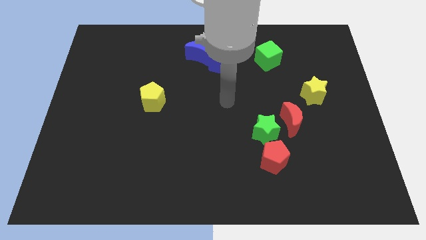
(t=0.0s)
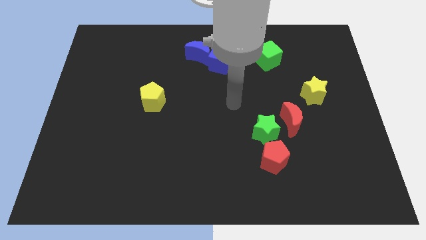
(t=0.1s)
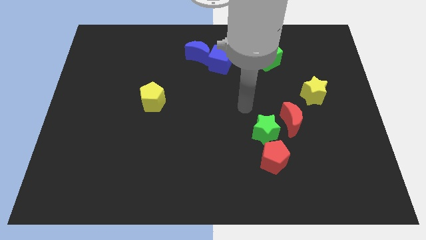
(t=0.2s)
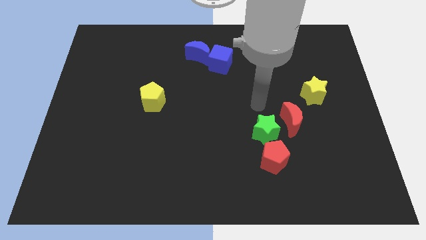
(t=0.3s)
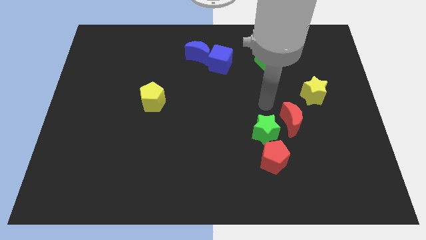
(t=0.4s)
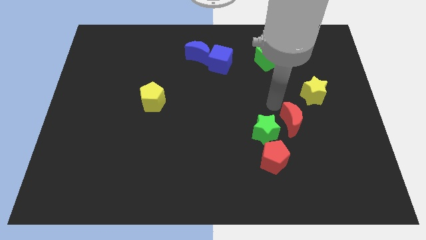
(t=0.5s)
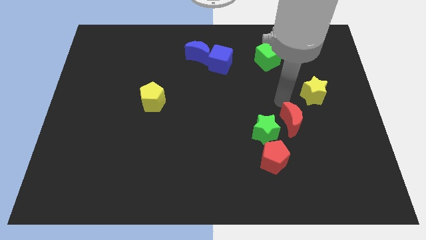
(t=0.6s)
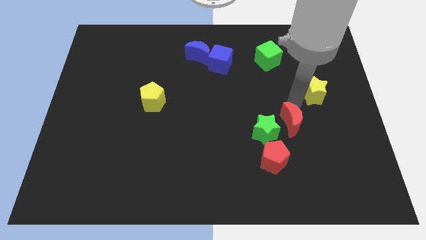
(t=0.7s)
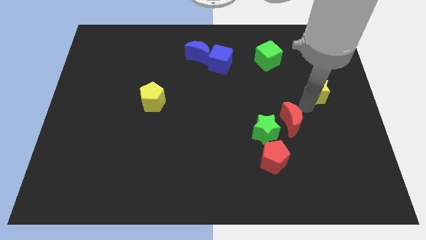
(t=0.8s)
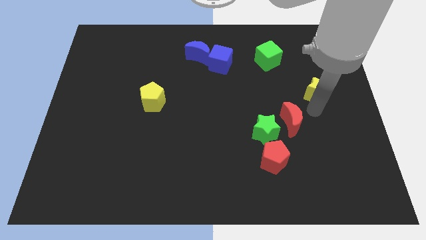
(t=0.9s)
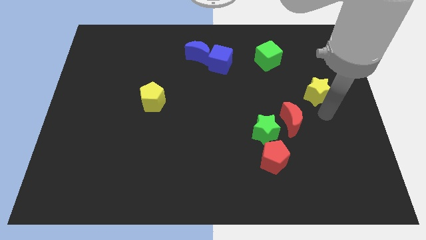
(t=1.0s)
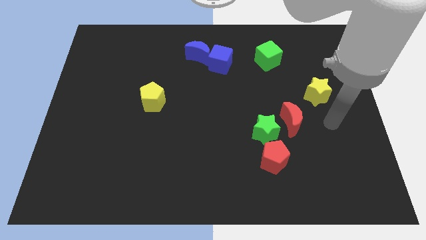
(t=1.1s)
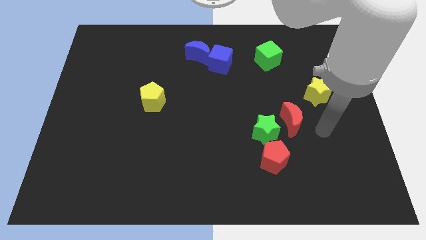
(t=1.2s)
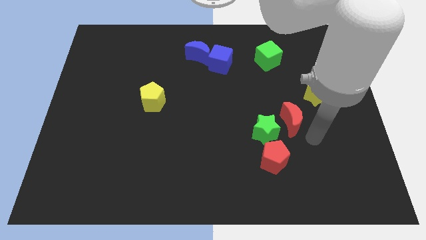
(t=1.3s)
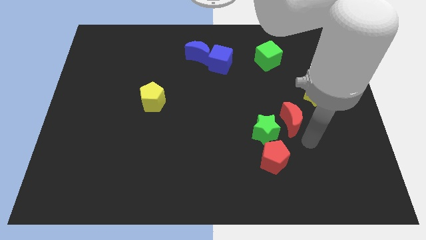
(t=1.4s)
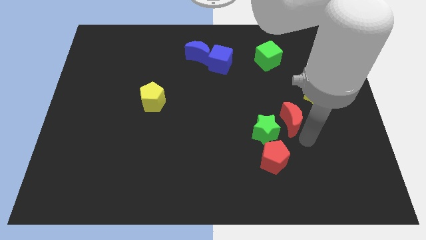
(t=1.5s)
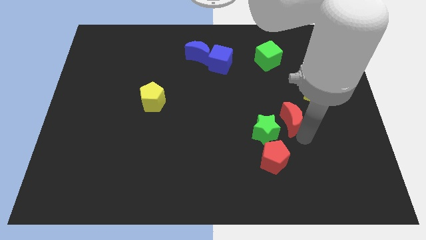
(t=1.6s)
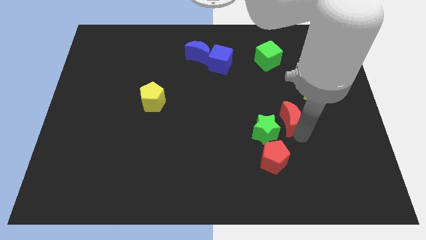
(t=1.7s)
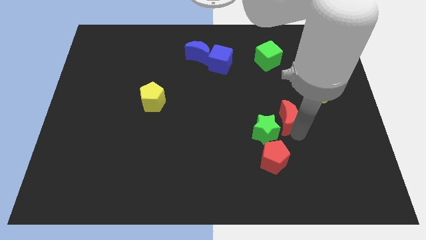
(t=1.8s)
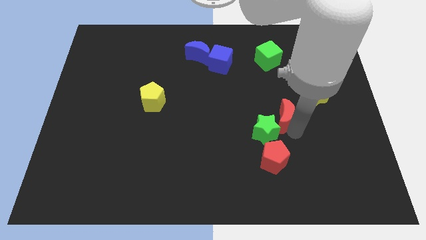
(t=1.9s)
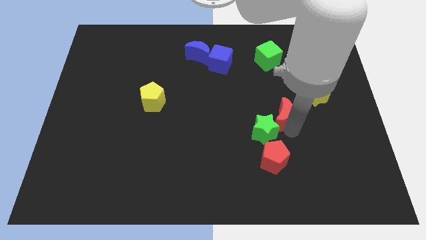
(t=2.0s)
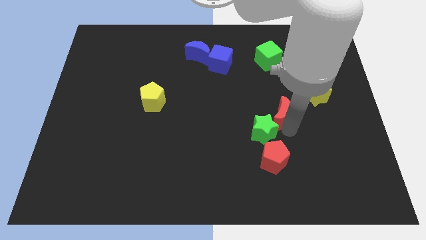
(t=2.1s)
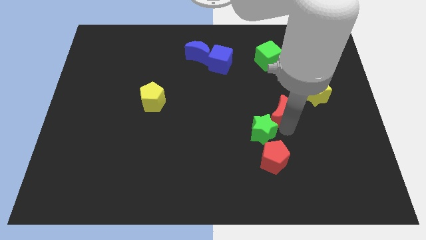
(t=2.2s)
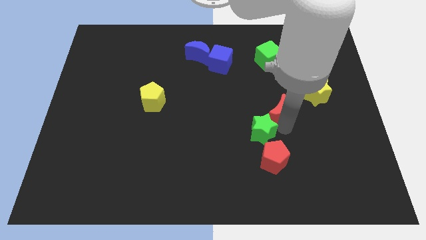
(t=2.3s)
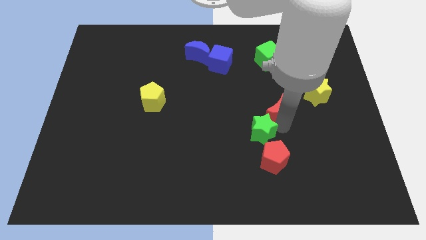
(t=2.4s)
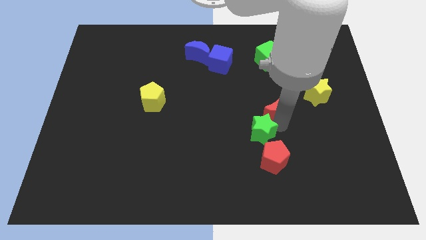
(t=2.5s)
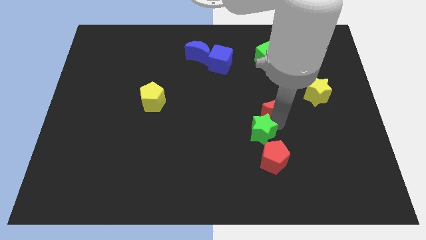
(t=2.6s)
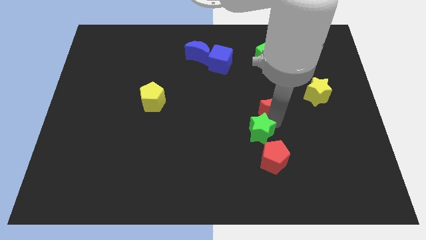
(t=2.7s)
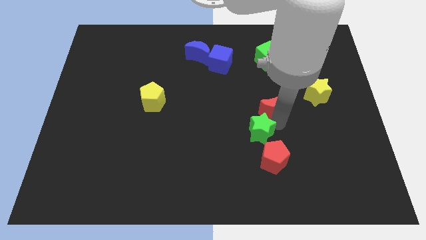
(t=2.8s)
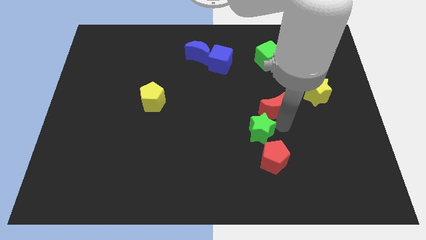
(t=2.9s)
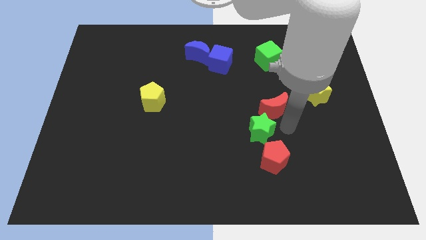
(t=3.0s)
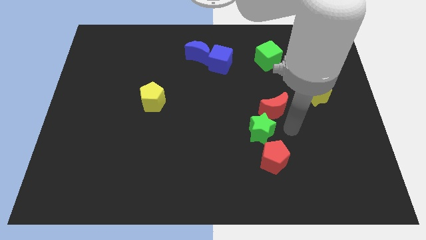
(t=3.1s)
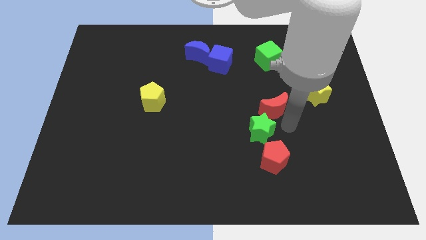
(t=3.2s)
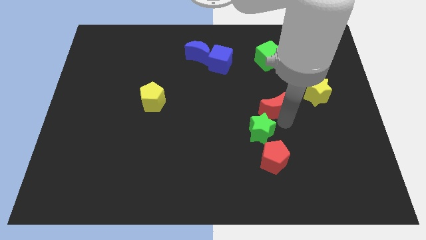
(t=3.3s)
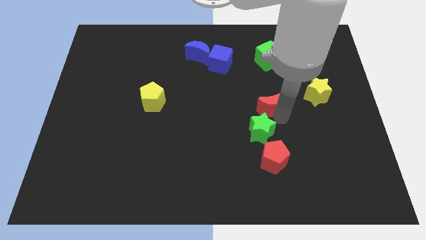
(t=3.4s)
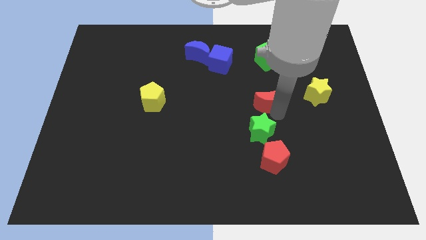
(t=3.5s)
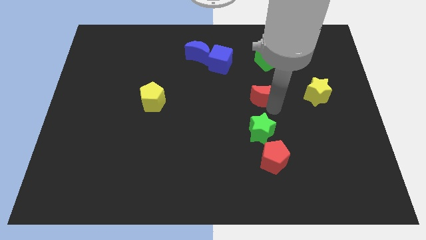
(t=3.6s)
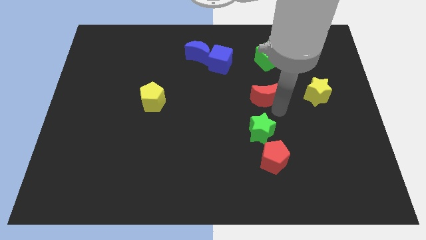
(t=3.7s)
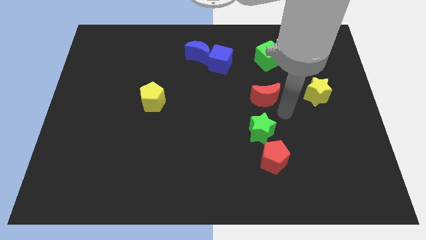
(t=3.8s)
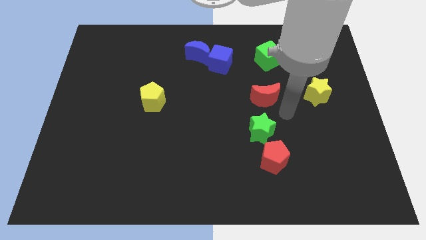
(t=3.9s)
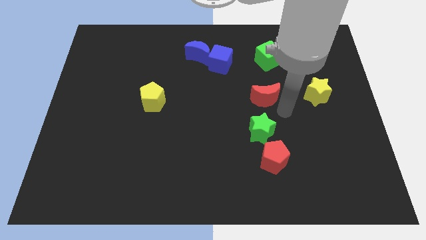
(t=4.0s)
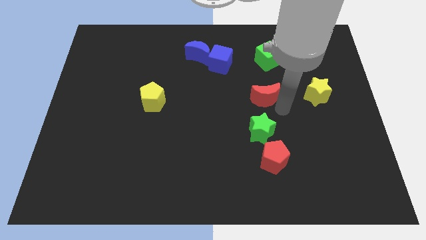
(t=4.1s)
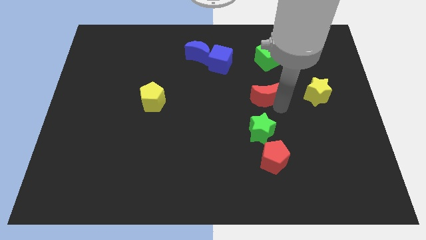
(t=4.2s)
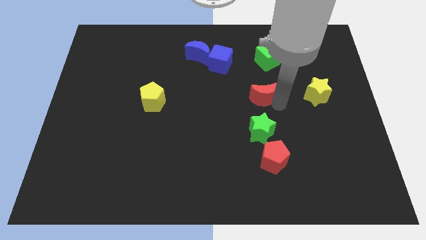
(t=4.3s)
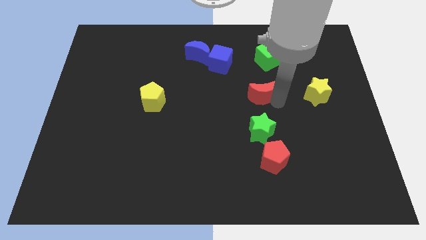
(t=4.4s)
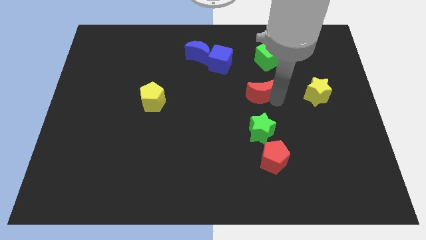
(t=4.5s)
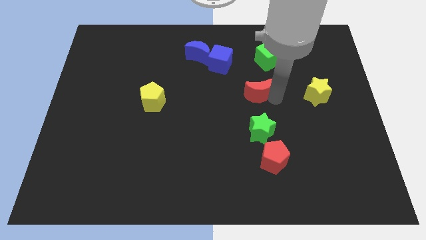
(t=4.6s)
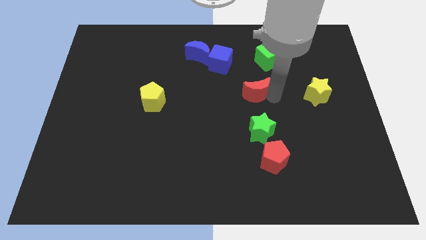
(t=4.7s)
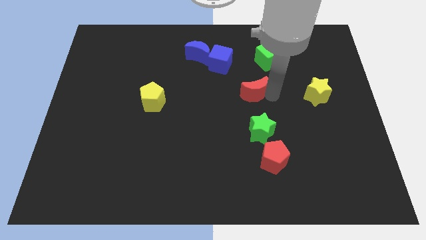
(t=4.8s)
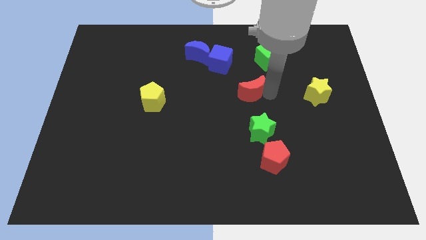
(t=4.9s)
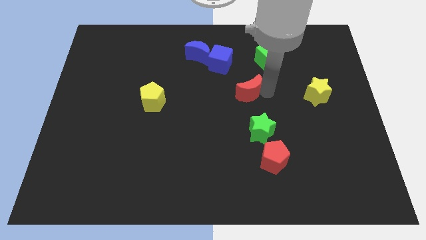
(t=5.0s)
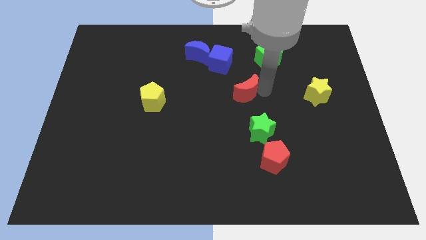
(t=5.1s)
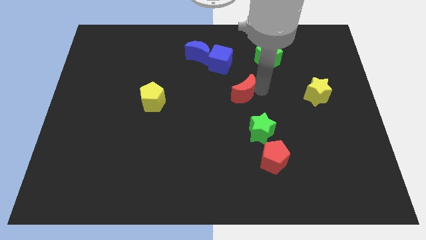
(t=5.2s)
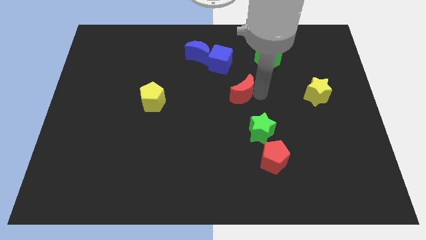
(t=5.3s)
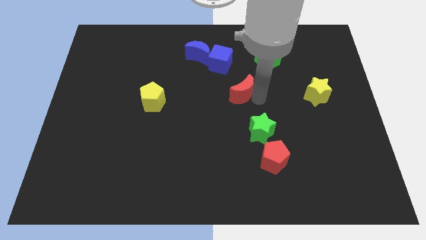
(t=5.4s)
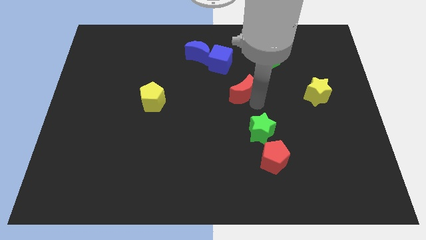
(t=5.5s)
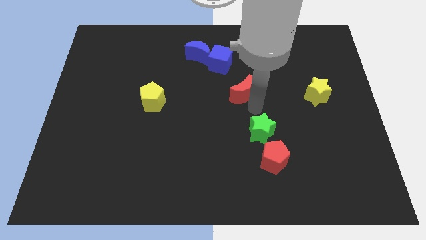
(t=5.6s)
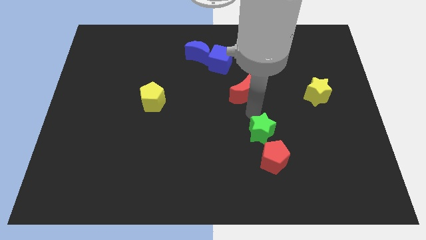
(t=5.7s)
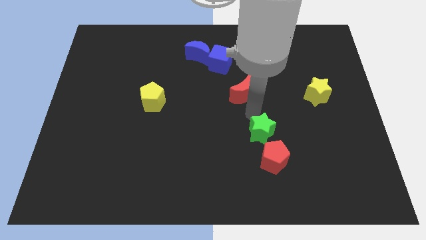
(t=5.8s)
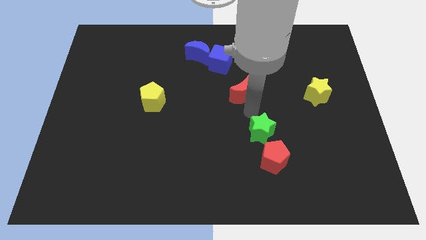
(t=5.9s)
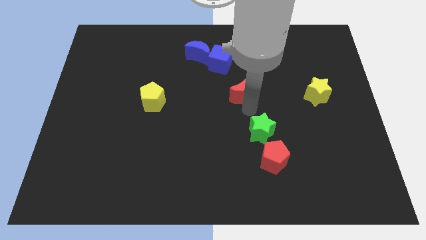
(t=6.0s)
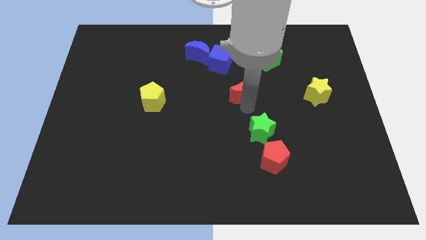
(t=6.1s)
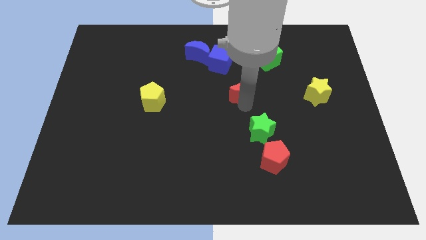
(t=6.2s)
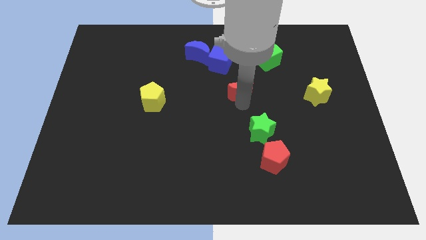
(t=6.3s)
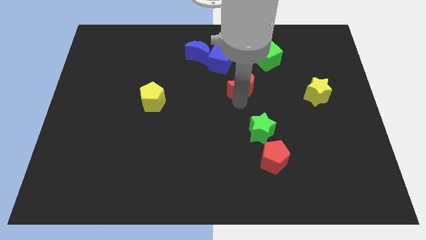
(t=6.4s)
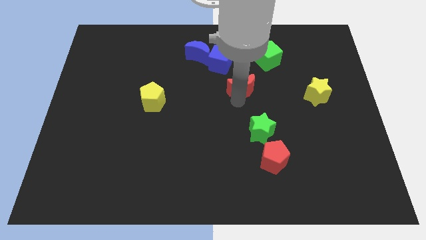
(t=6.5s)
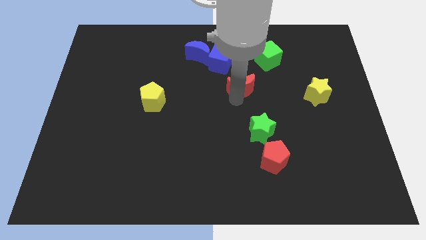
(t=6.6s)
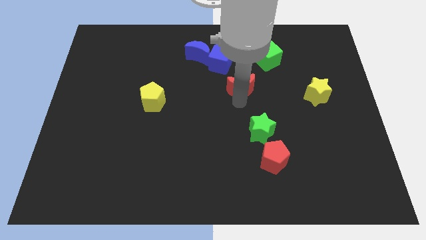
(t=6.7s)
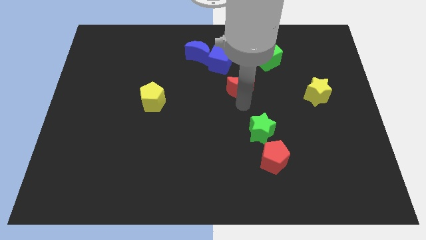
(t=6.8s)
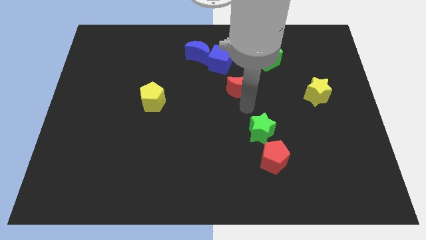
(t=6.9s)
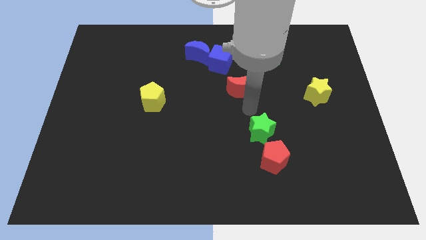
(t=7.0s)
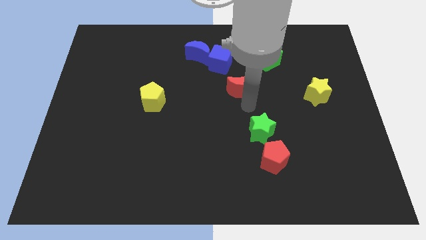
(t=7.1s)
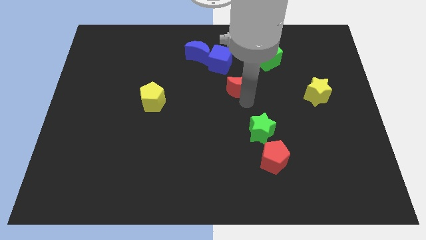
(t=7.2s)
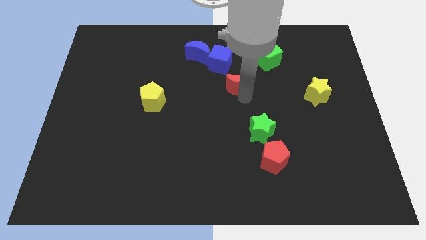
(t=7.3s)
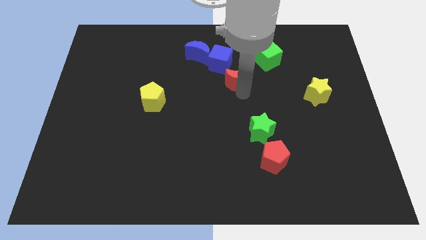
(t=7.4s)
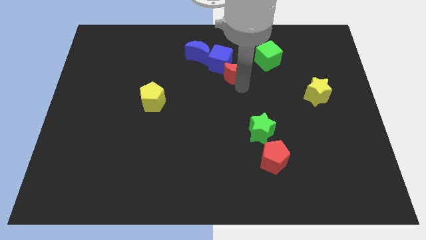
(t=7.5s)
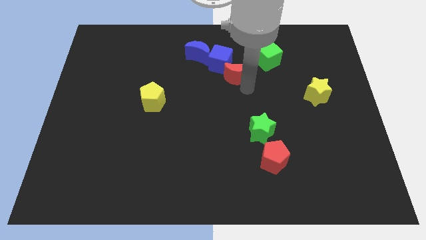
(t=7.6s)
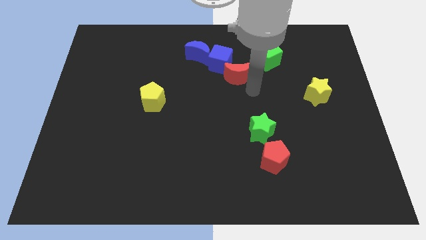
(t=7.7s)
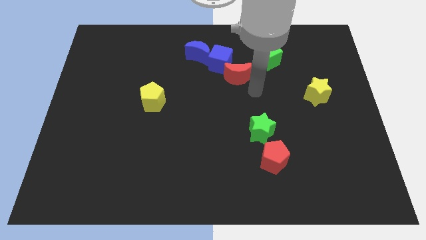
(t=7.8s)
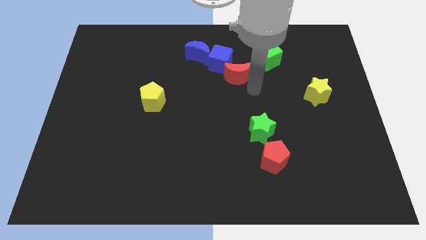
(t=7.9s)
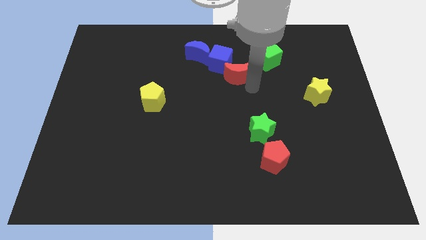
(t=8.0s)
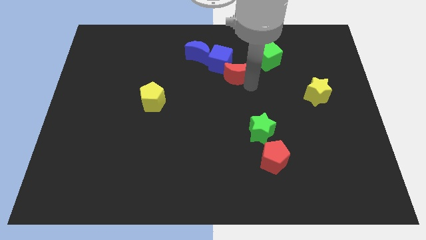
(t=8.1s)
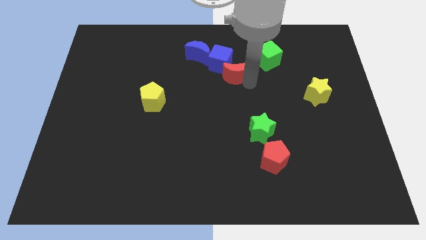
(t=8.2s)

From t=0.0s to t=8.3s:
slide the red moon to the blue cube
